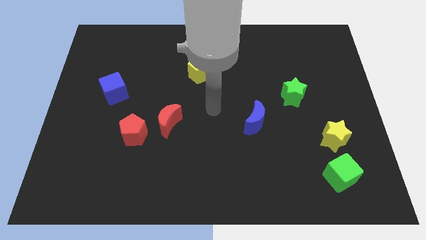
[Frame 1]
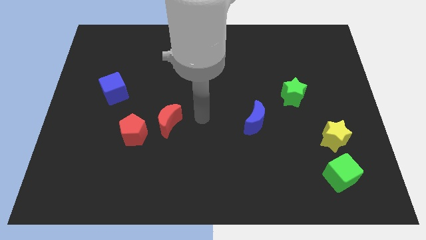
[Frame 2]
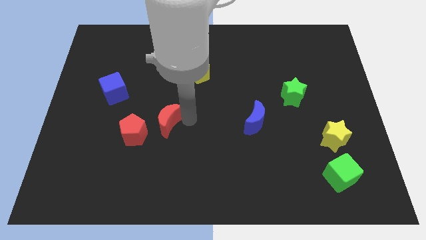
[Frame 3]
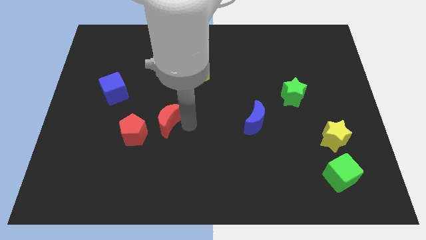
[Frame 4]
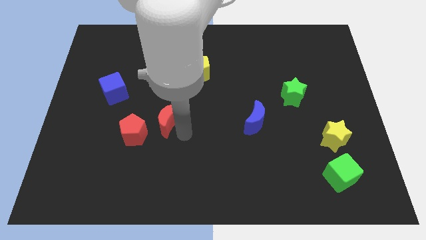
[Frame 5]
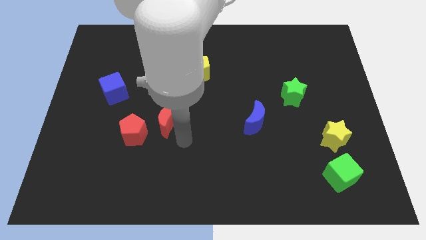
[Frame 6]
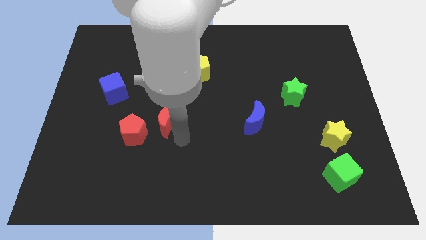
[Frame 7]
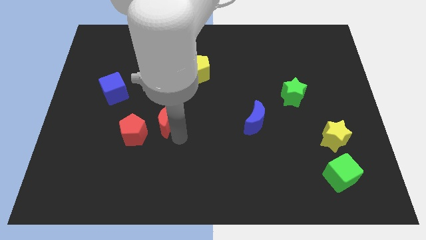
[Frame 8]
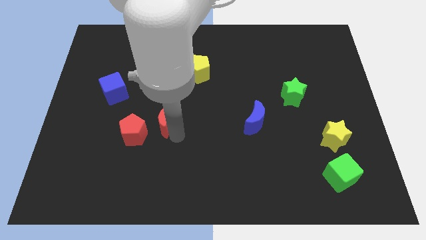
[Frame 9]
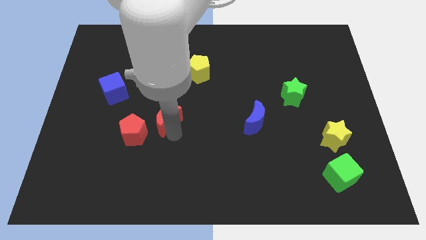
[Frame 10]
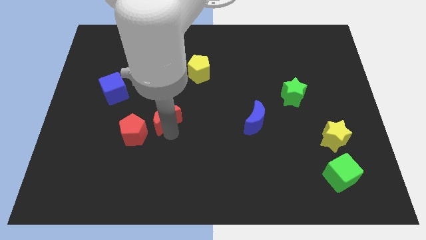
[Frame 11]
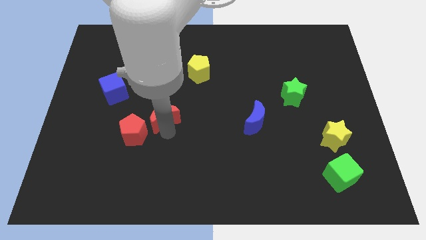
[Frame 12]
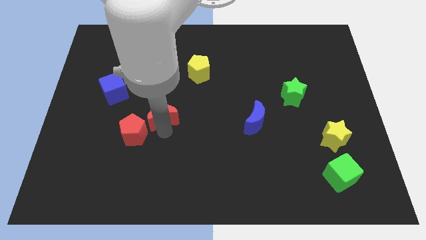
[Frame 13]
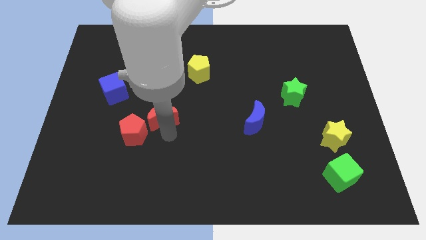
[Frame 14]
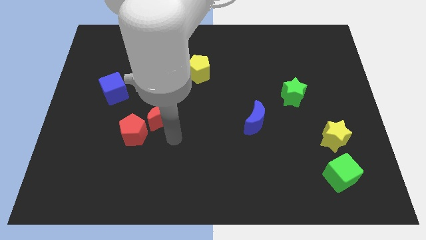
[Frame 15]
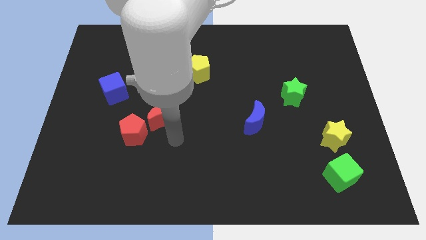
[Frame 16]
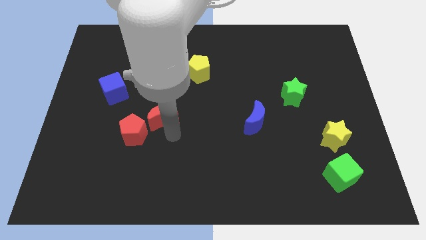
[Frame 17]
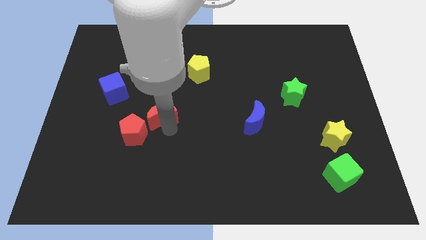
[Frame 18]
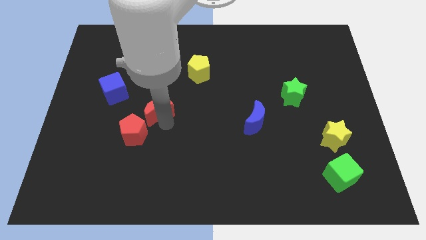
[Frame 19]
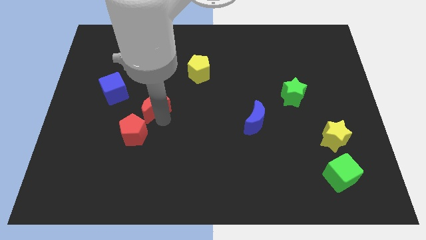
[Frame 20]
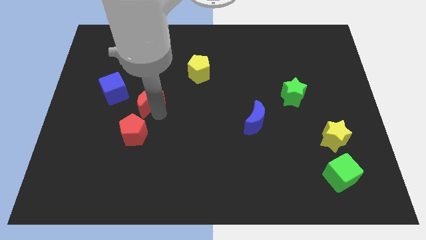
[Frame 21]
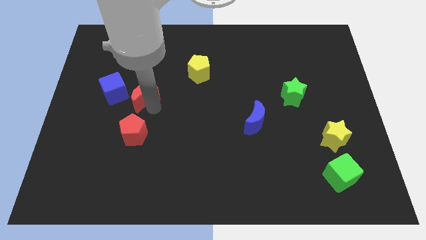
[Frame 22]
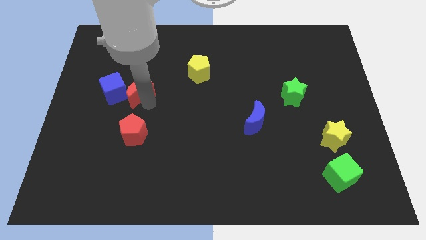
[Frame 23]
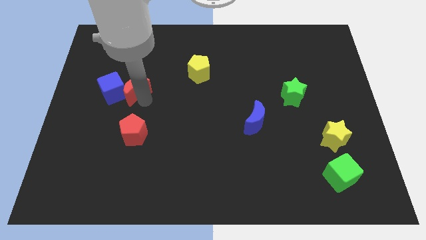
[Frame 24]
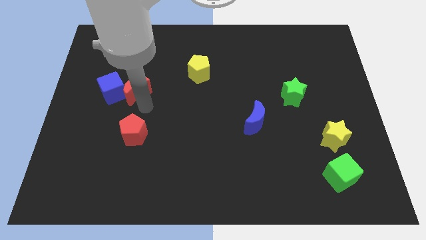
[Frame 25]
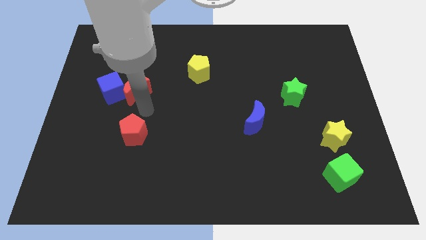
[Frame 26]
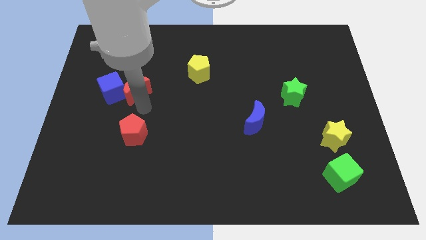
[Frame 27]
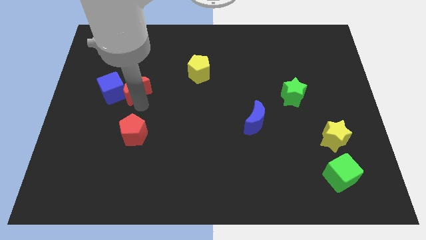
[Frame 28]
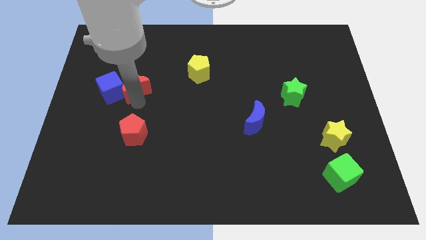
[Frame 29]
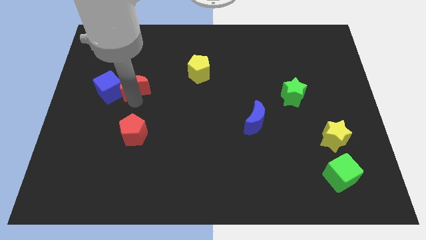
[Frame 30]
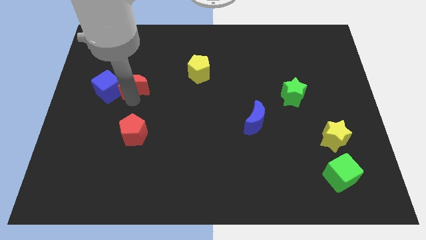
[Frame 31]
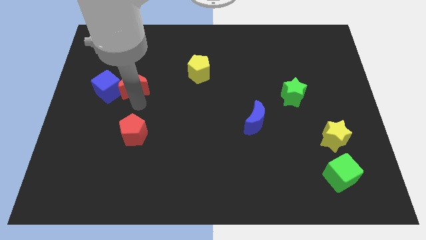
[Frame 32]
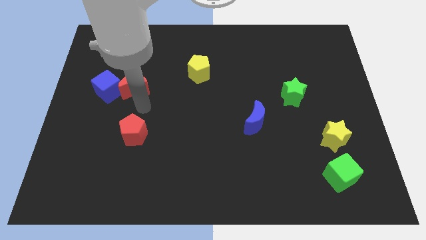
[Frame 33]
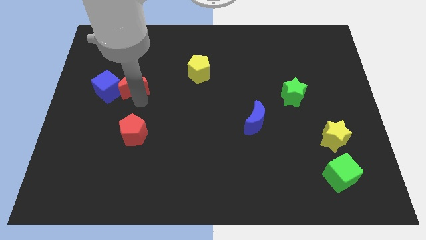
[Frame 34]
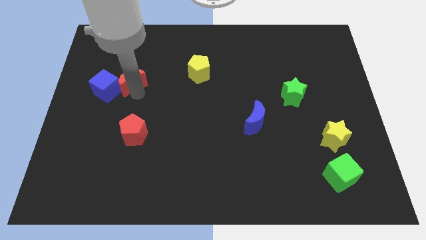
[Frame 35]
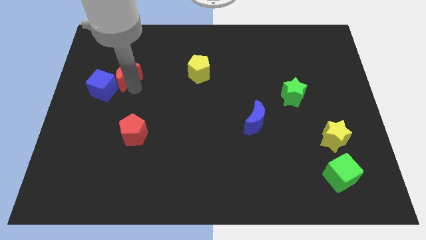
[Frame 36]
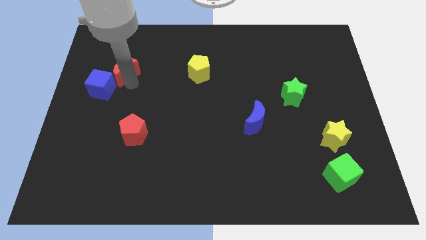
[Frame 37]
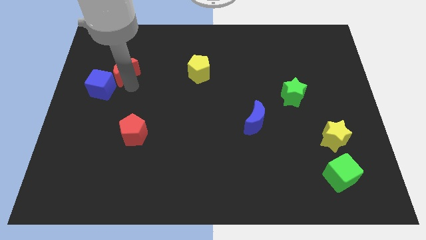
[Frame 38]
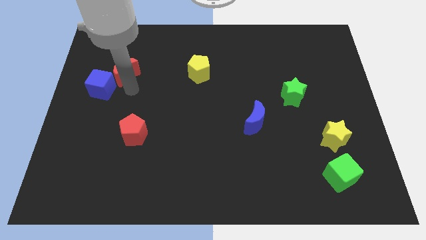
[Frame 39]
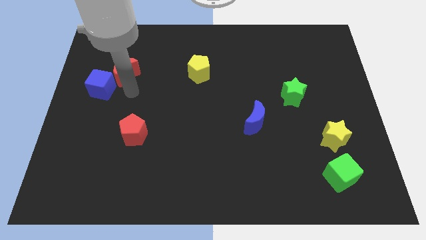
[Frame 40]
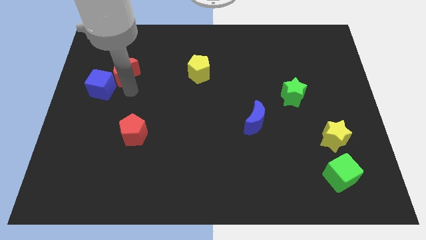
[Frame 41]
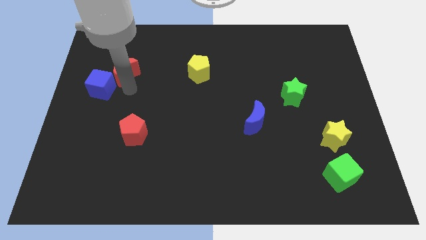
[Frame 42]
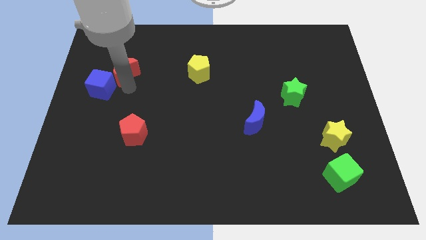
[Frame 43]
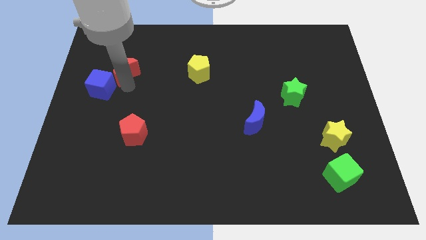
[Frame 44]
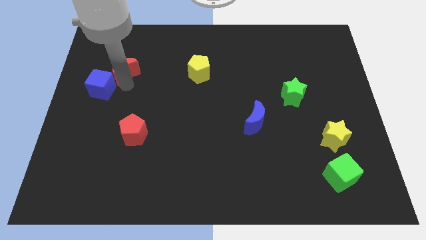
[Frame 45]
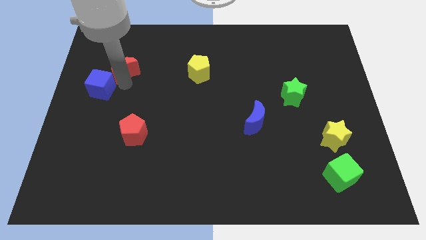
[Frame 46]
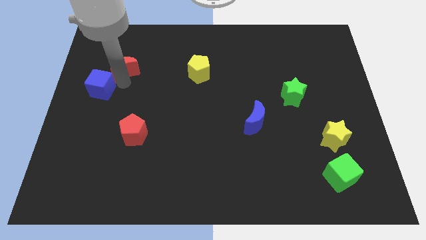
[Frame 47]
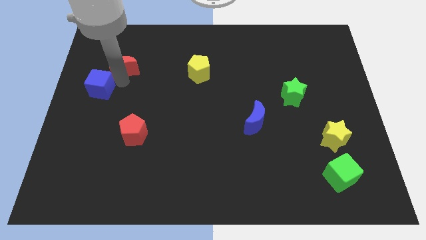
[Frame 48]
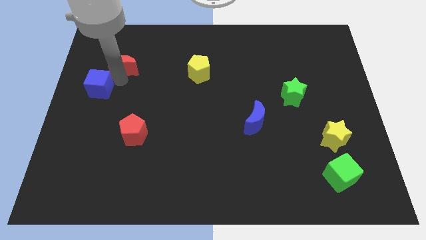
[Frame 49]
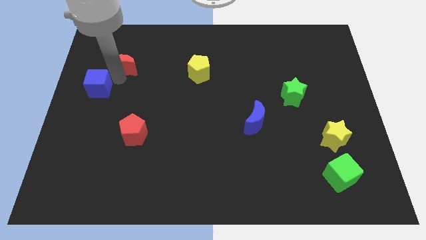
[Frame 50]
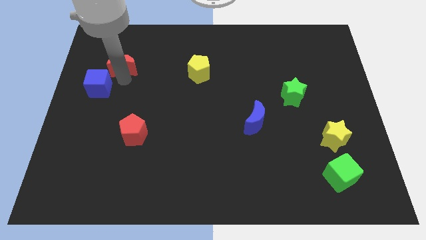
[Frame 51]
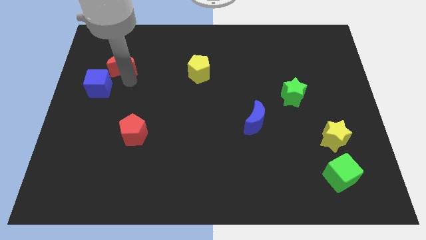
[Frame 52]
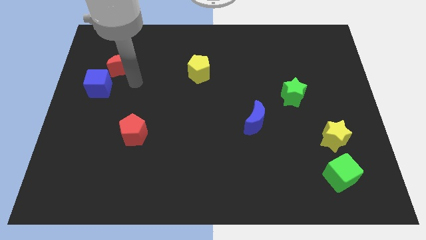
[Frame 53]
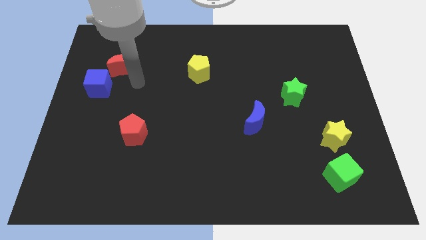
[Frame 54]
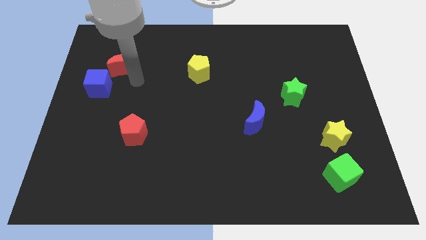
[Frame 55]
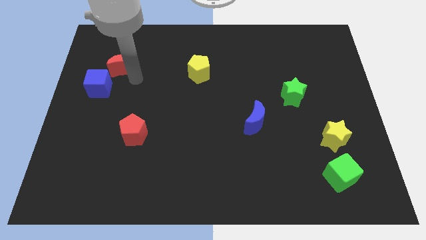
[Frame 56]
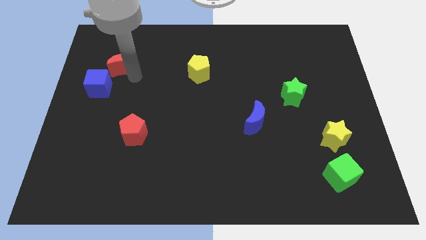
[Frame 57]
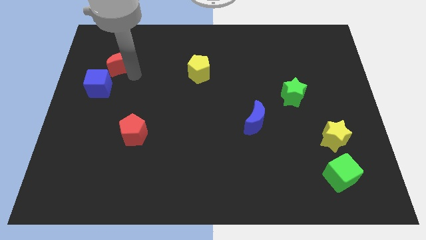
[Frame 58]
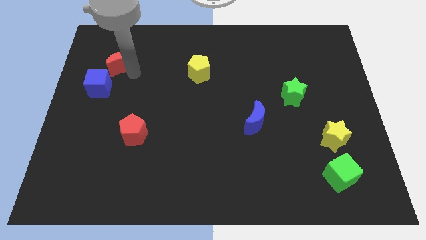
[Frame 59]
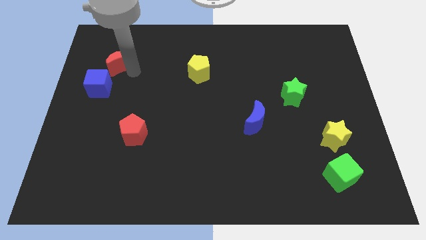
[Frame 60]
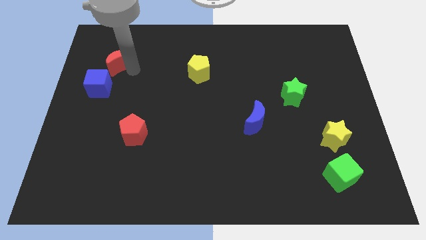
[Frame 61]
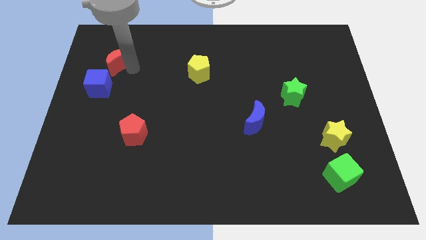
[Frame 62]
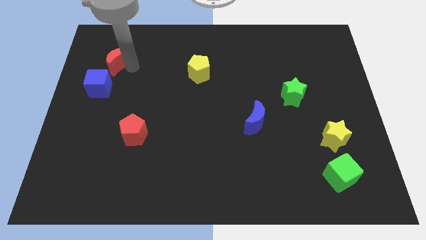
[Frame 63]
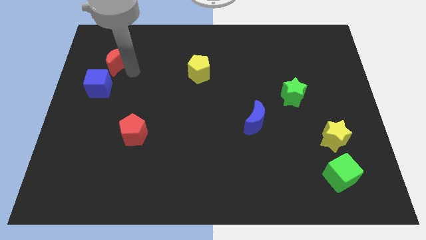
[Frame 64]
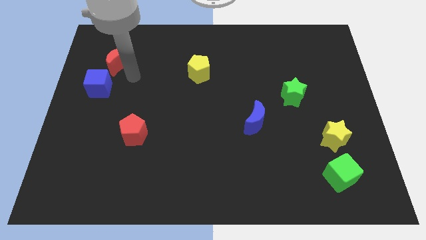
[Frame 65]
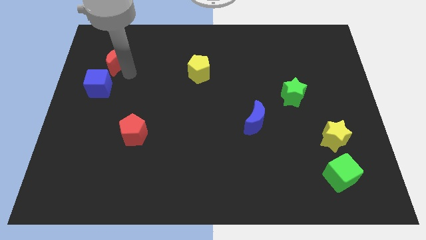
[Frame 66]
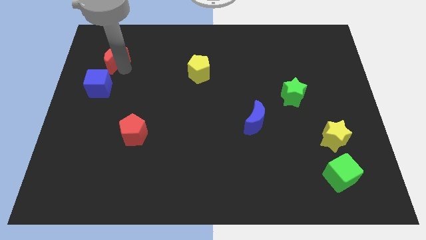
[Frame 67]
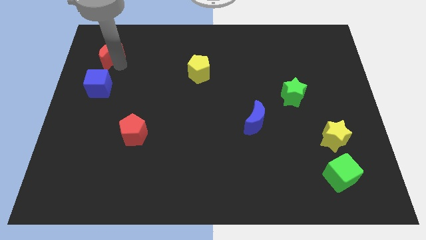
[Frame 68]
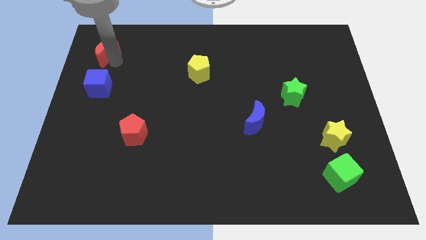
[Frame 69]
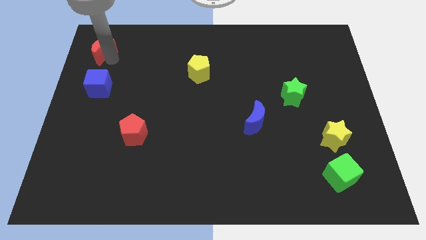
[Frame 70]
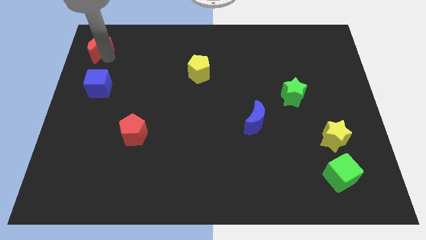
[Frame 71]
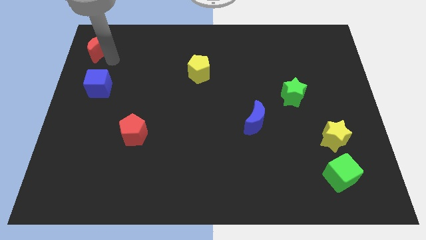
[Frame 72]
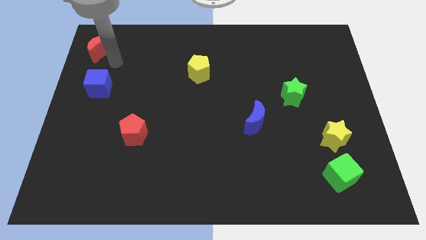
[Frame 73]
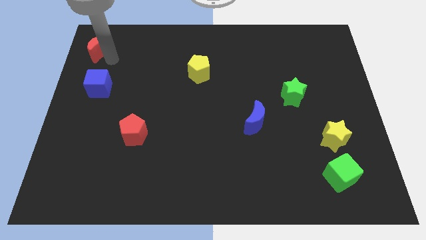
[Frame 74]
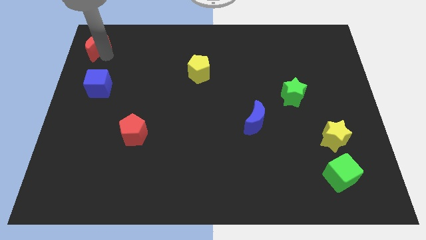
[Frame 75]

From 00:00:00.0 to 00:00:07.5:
push the red moon to the top left
